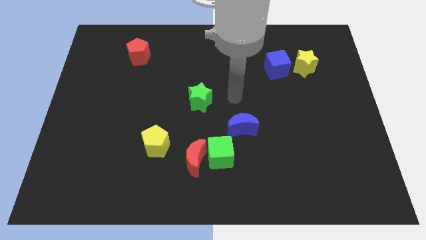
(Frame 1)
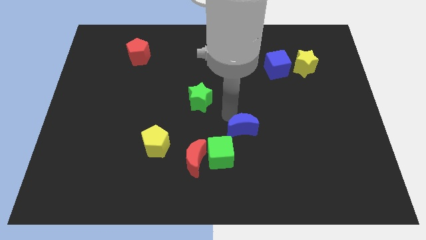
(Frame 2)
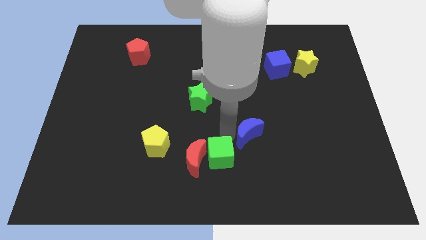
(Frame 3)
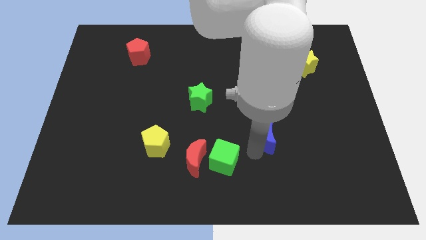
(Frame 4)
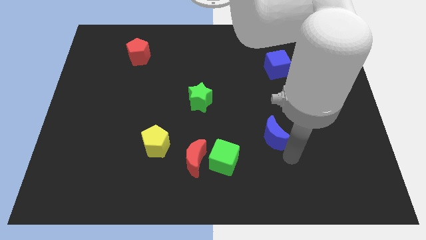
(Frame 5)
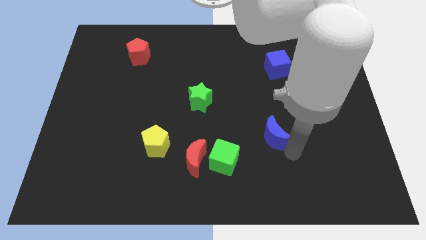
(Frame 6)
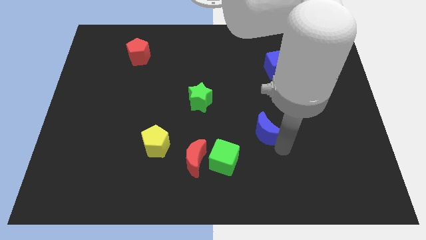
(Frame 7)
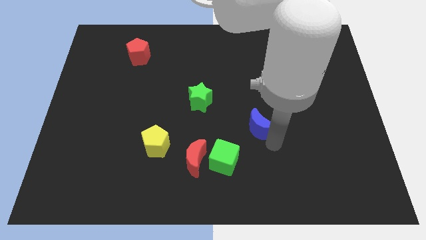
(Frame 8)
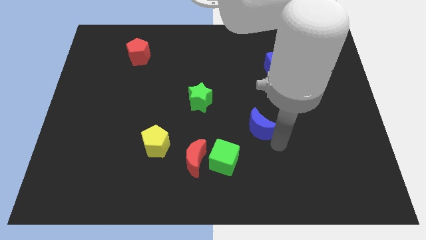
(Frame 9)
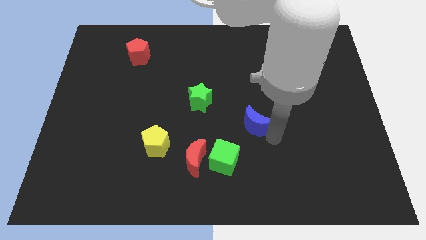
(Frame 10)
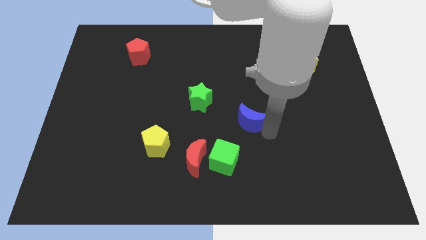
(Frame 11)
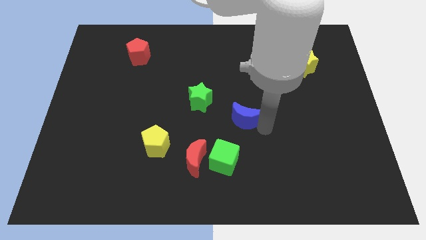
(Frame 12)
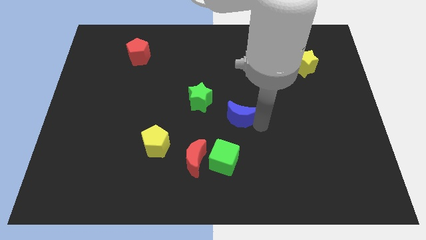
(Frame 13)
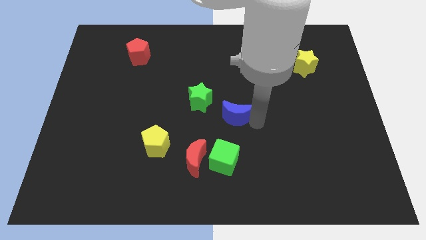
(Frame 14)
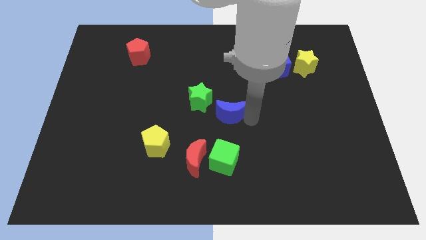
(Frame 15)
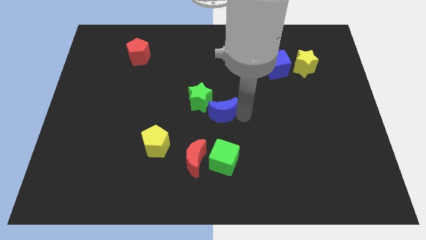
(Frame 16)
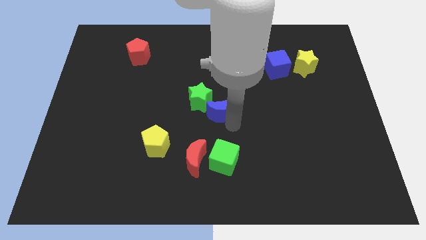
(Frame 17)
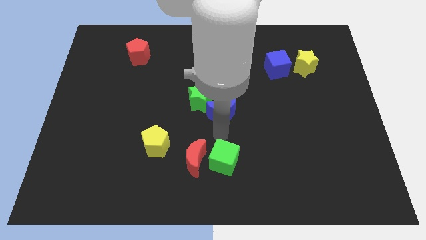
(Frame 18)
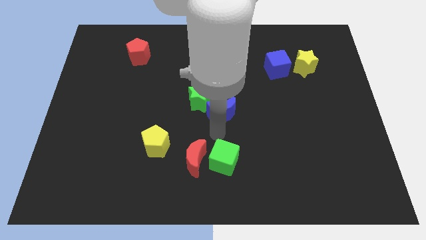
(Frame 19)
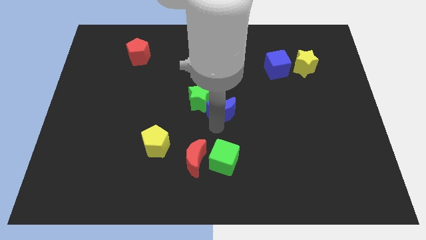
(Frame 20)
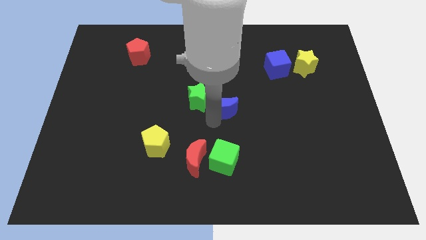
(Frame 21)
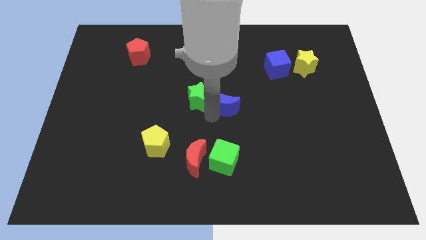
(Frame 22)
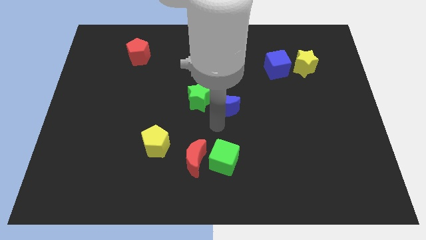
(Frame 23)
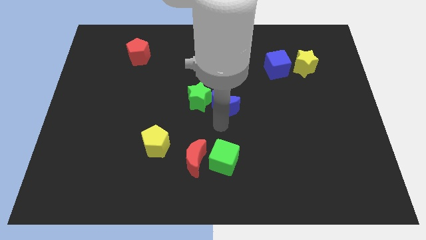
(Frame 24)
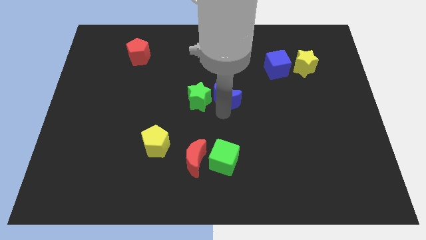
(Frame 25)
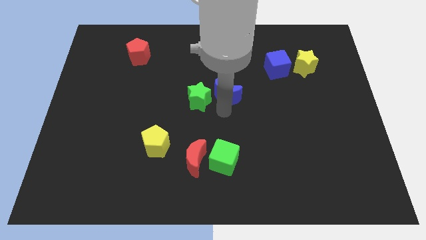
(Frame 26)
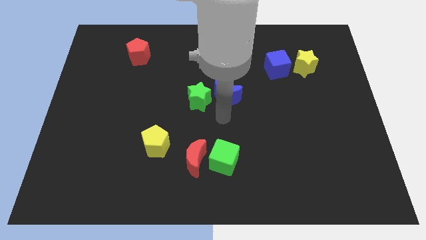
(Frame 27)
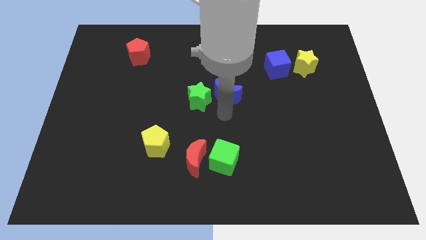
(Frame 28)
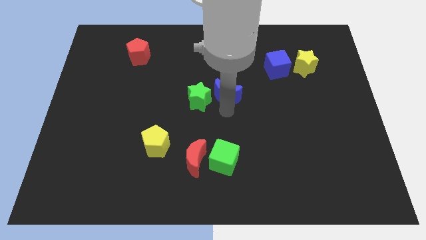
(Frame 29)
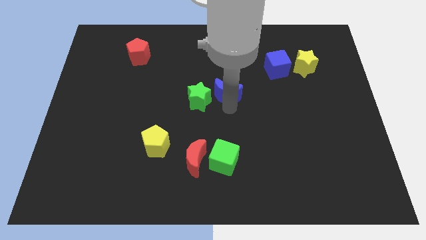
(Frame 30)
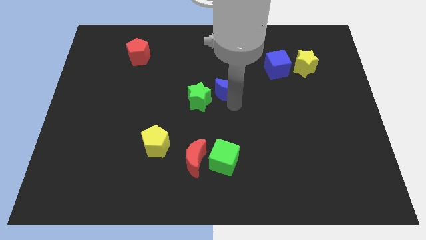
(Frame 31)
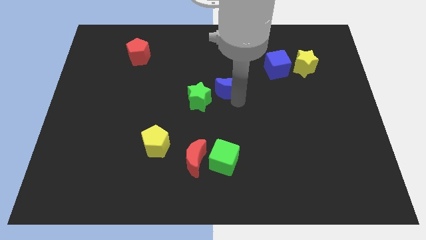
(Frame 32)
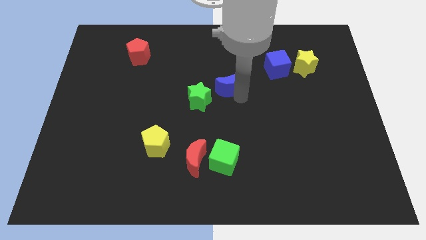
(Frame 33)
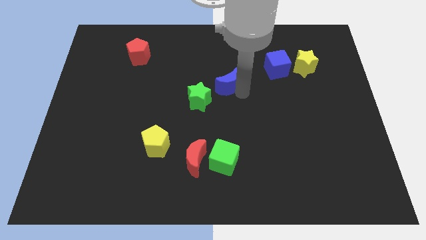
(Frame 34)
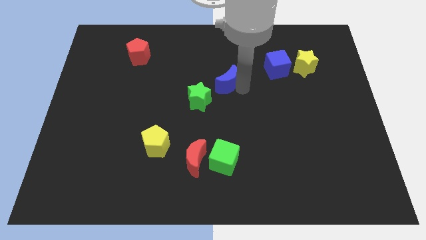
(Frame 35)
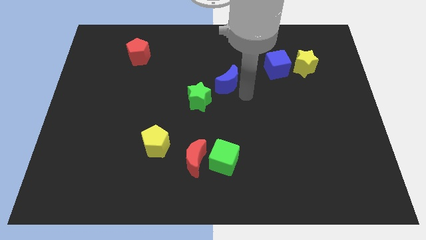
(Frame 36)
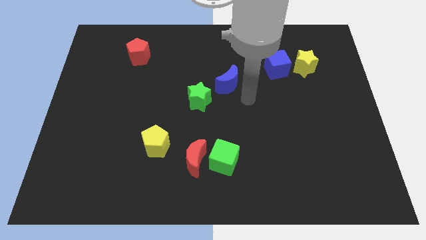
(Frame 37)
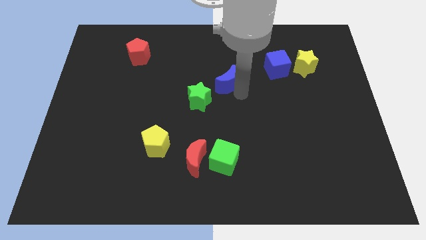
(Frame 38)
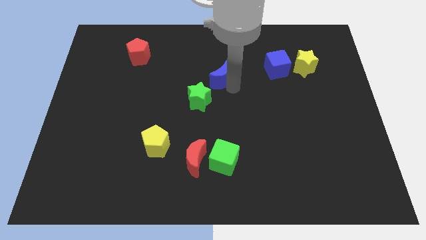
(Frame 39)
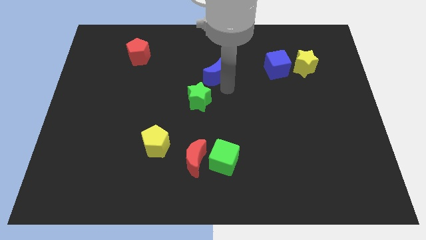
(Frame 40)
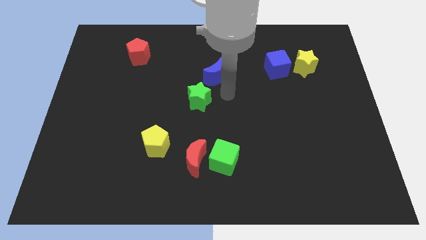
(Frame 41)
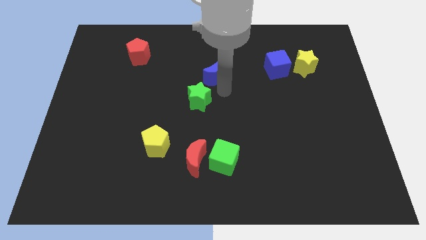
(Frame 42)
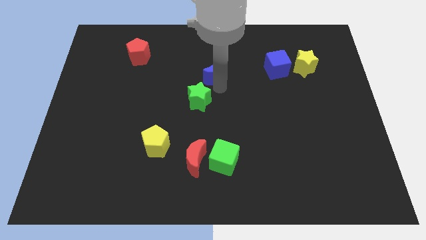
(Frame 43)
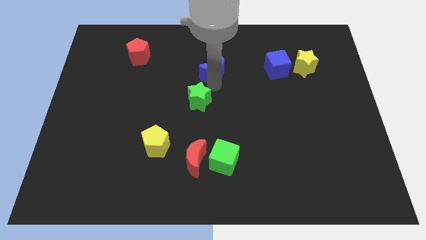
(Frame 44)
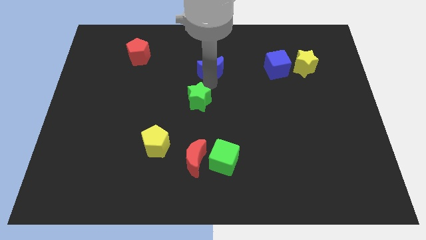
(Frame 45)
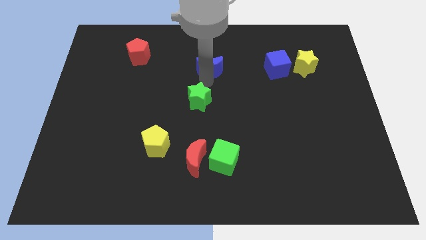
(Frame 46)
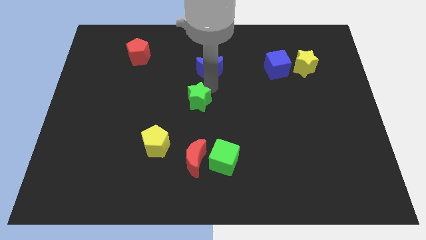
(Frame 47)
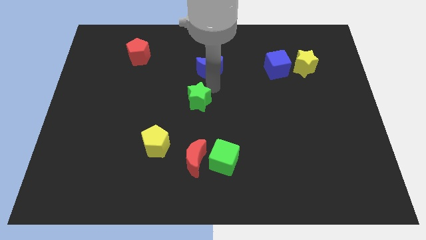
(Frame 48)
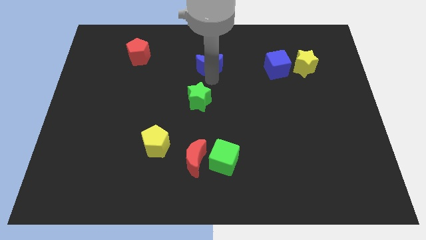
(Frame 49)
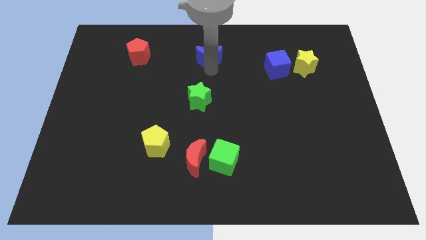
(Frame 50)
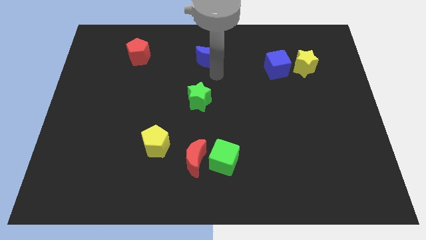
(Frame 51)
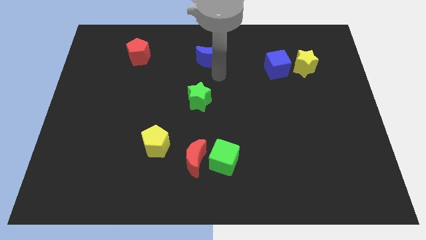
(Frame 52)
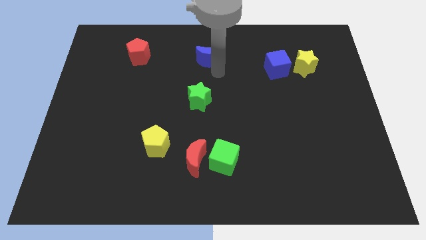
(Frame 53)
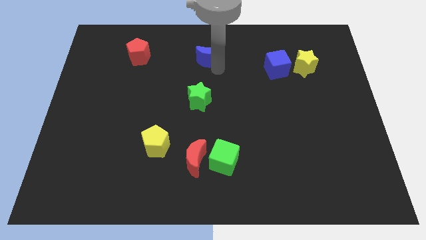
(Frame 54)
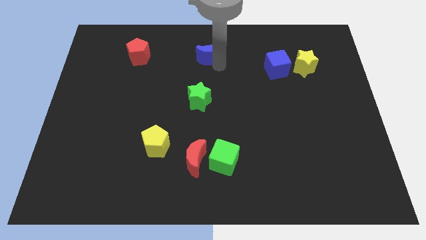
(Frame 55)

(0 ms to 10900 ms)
slide the blue moon to the towards your base

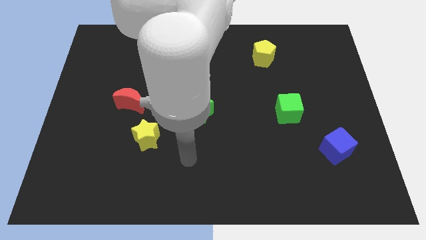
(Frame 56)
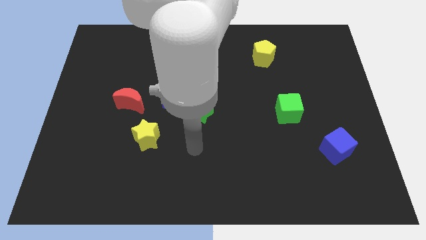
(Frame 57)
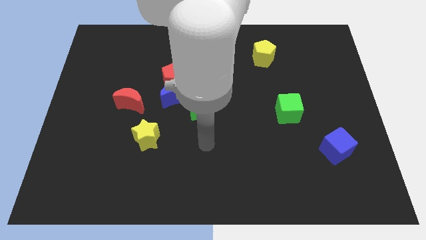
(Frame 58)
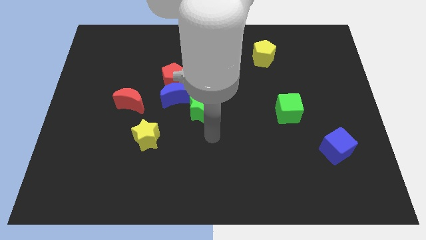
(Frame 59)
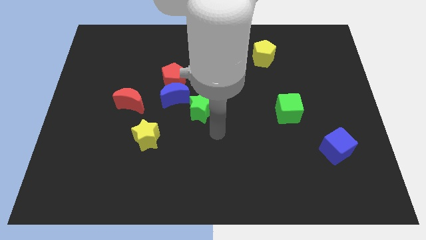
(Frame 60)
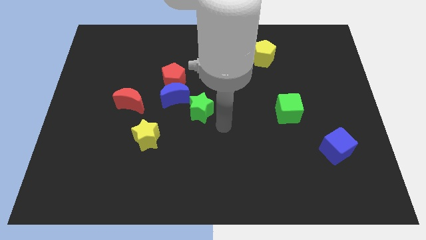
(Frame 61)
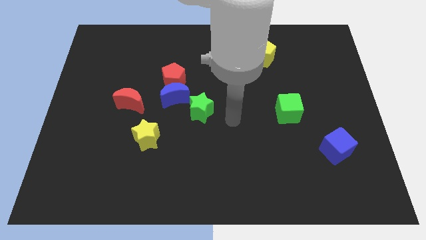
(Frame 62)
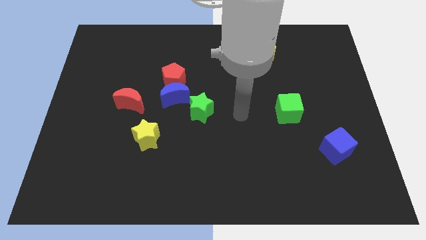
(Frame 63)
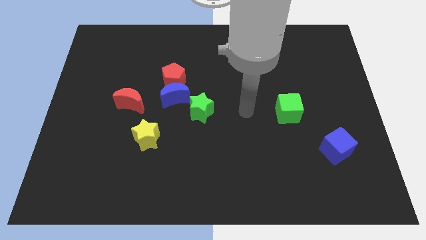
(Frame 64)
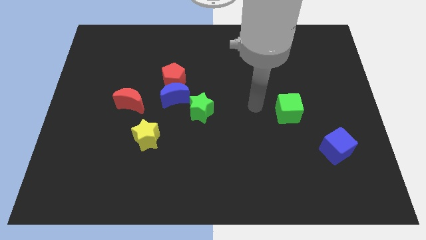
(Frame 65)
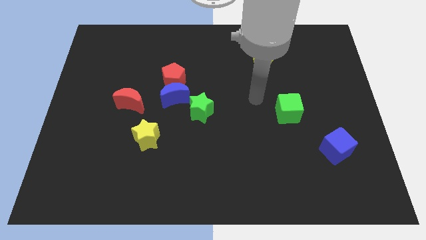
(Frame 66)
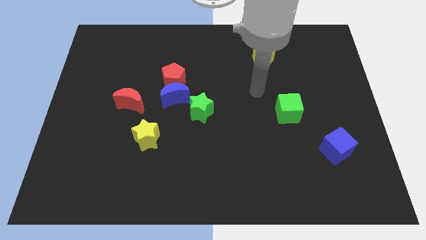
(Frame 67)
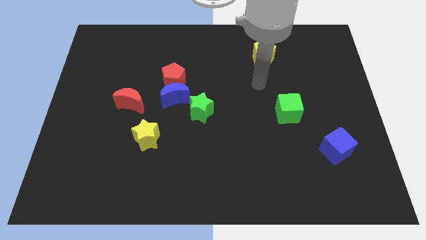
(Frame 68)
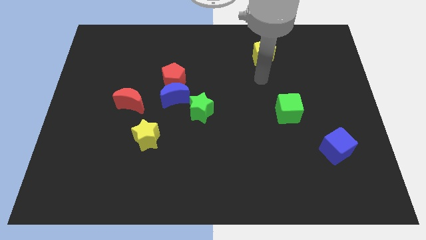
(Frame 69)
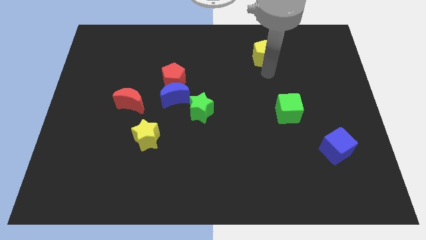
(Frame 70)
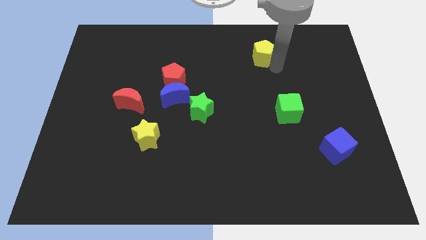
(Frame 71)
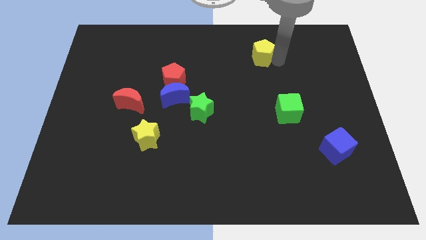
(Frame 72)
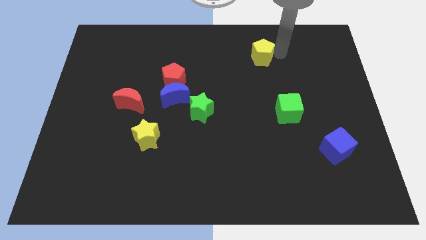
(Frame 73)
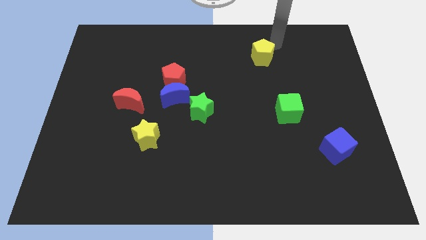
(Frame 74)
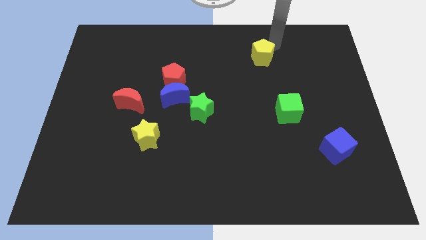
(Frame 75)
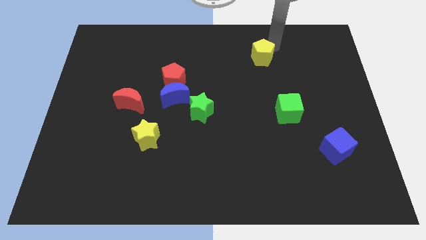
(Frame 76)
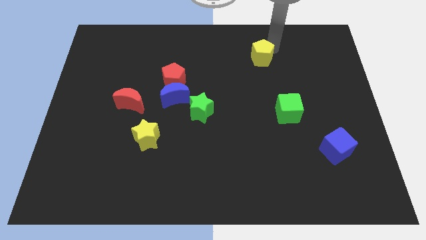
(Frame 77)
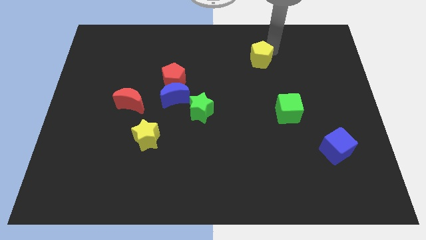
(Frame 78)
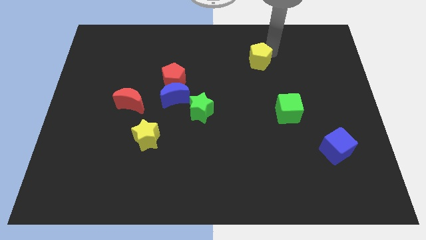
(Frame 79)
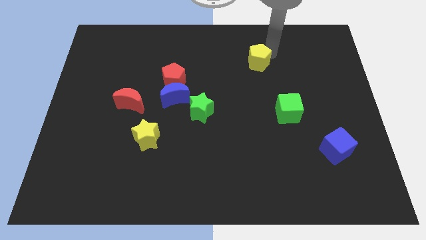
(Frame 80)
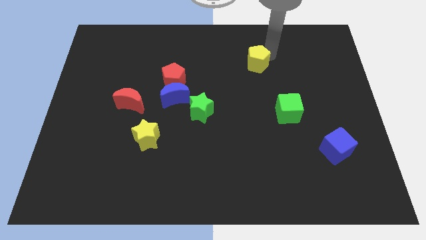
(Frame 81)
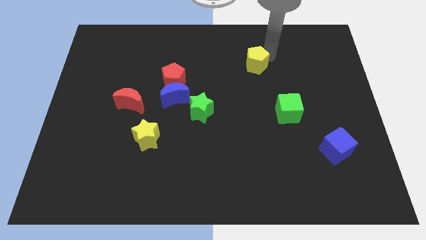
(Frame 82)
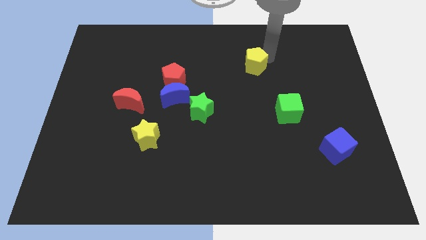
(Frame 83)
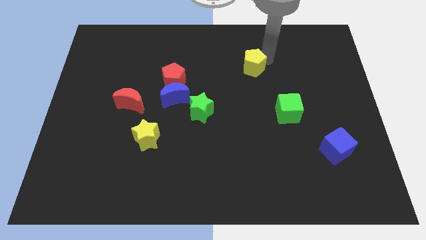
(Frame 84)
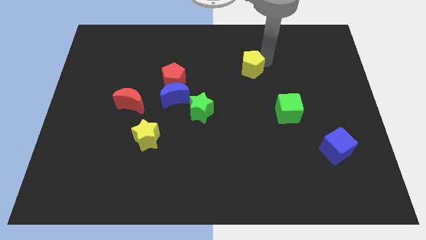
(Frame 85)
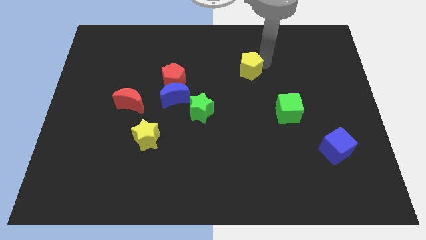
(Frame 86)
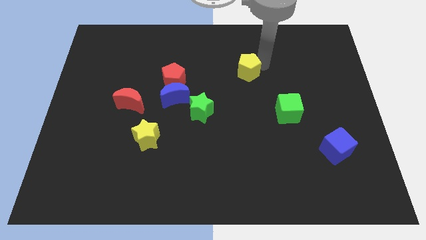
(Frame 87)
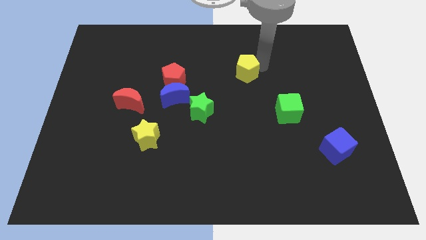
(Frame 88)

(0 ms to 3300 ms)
put the yellow pentagon to the middle of the board
